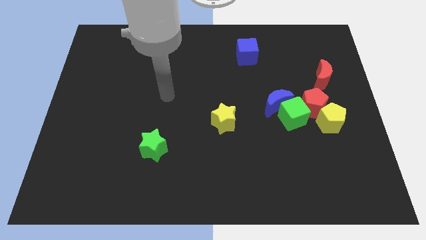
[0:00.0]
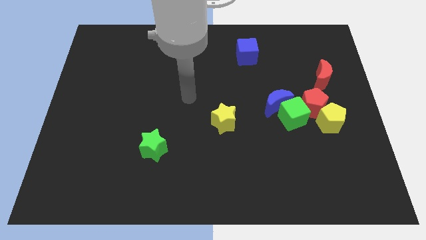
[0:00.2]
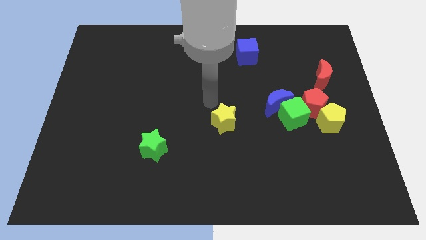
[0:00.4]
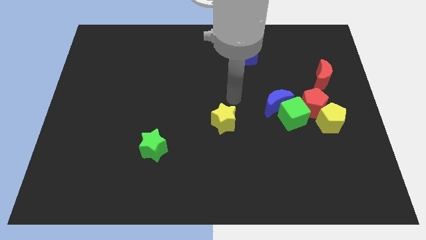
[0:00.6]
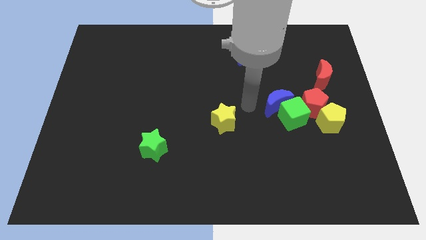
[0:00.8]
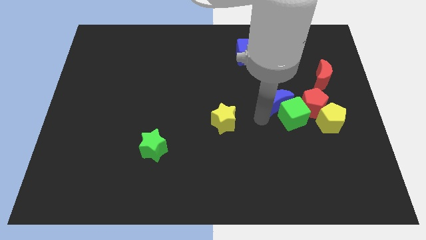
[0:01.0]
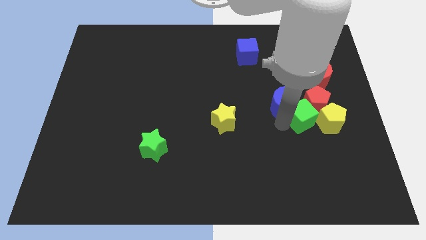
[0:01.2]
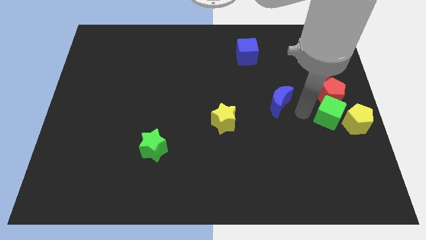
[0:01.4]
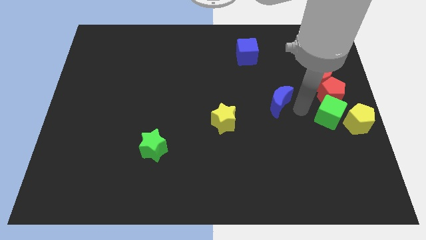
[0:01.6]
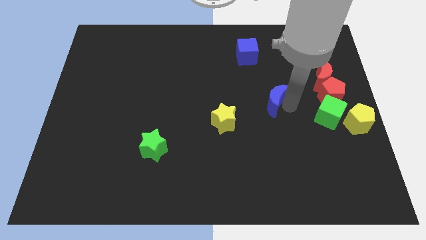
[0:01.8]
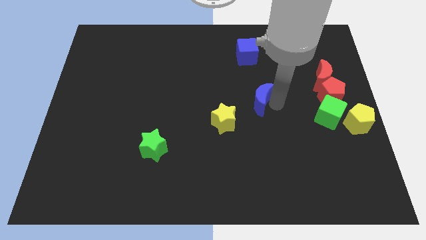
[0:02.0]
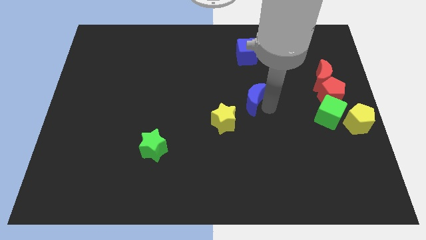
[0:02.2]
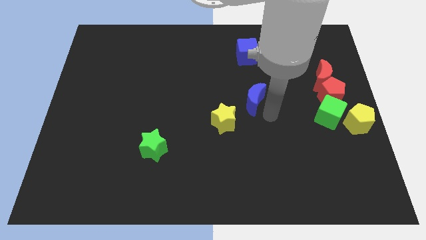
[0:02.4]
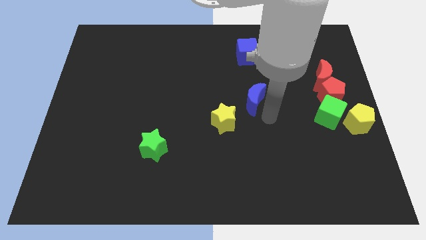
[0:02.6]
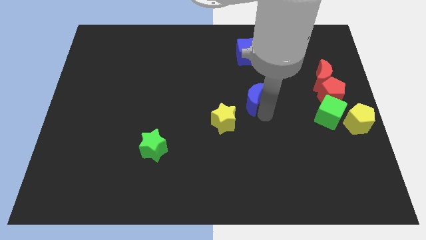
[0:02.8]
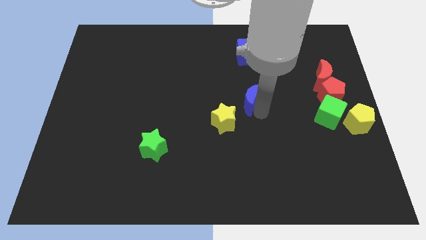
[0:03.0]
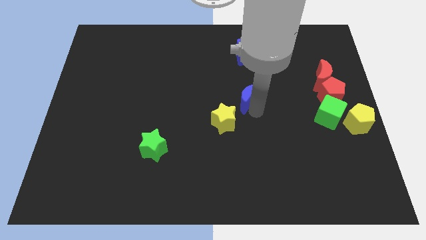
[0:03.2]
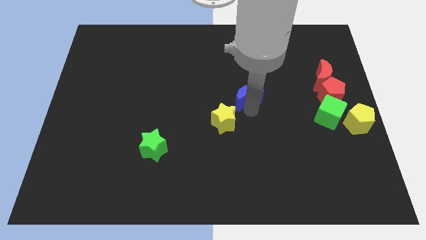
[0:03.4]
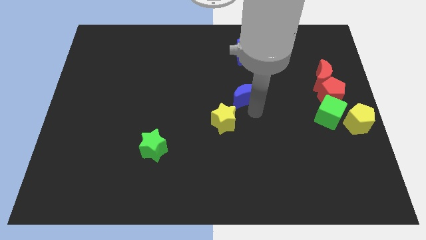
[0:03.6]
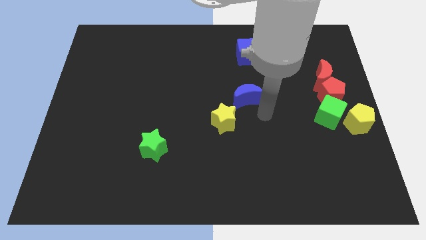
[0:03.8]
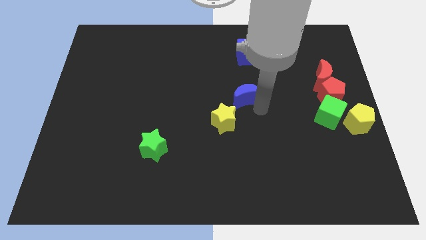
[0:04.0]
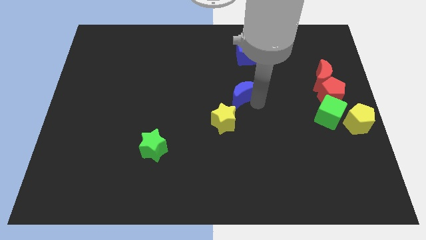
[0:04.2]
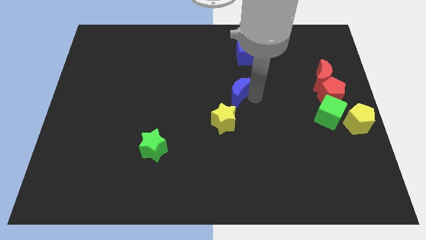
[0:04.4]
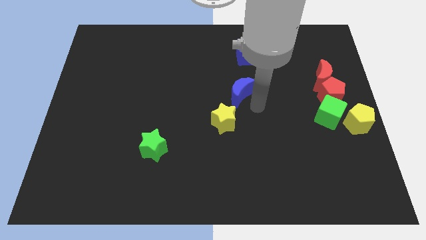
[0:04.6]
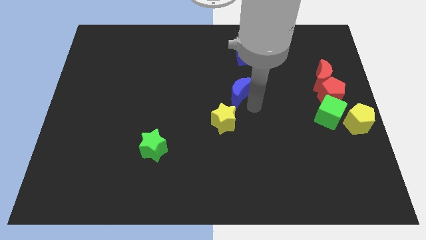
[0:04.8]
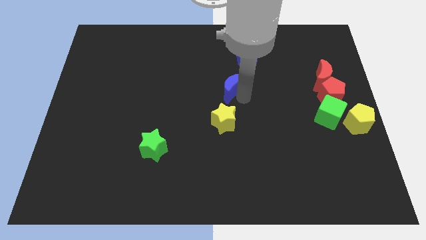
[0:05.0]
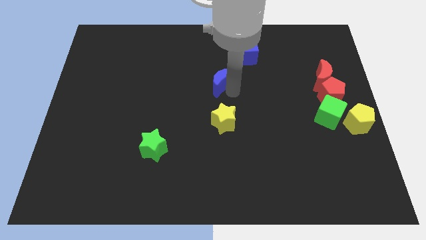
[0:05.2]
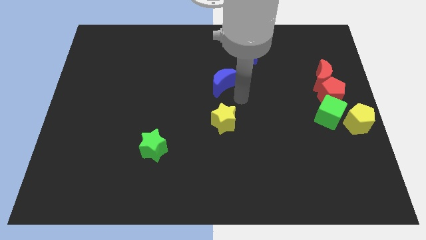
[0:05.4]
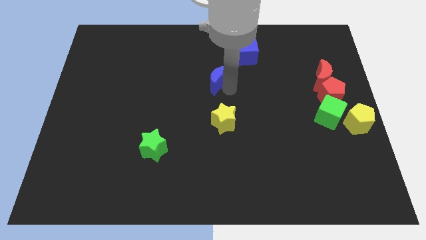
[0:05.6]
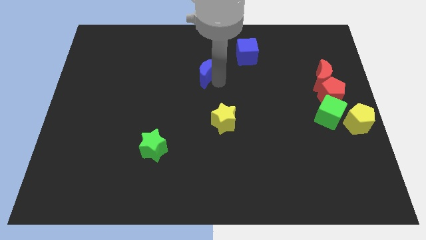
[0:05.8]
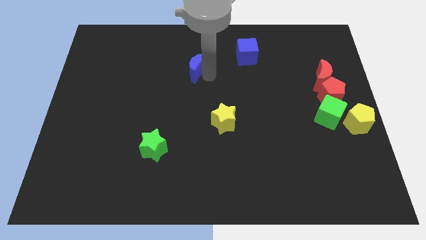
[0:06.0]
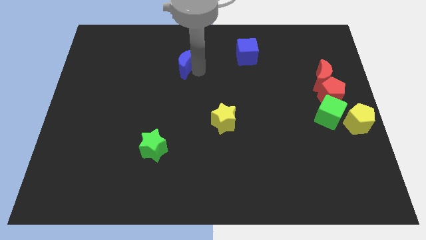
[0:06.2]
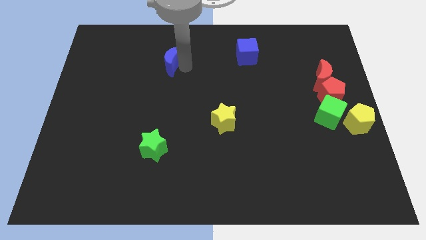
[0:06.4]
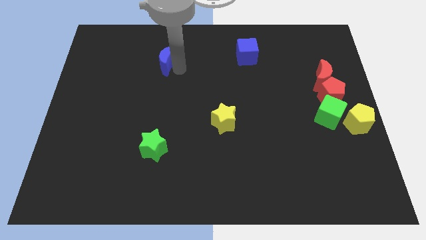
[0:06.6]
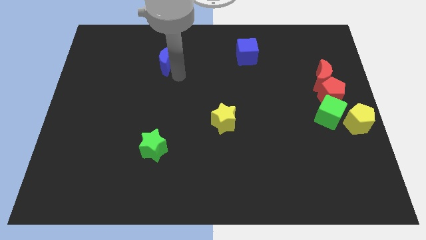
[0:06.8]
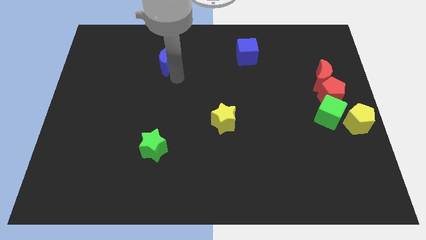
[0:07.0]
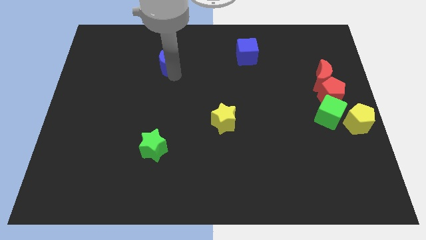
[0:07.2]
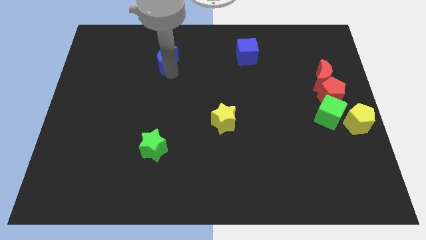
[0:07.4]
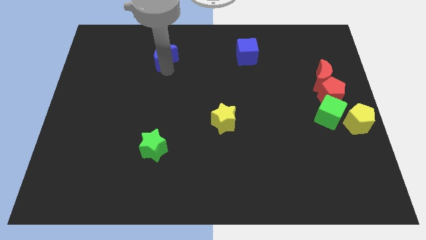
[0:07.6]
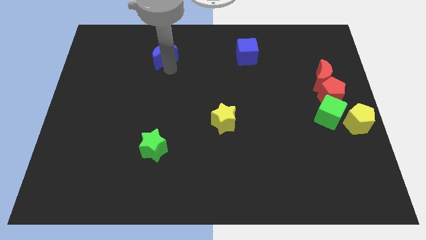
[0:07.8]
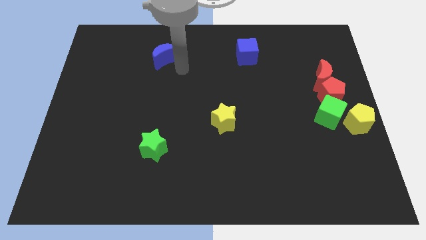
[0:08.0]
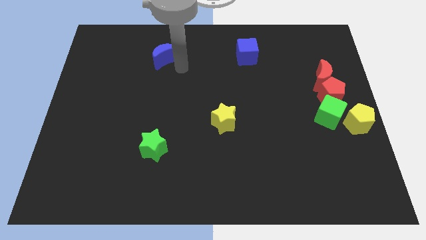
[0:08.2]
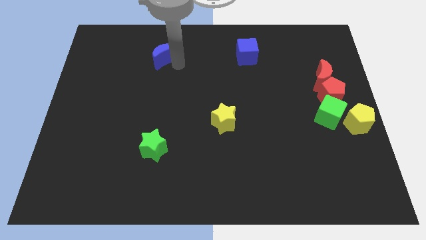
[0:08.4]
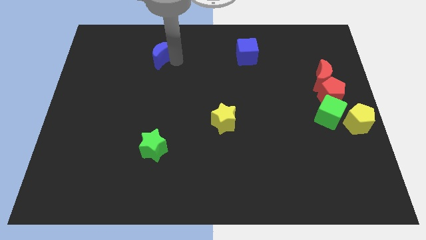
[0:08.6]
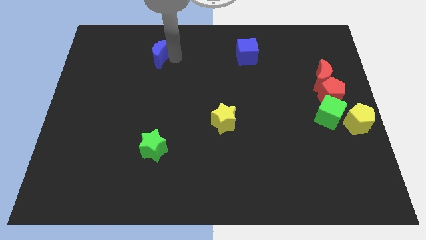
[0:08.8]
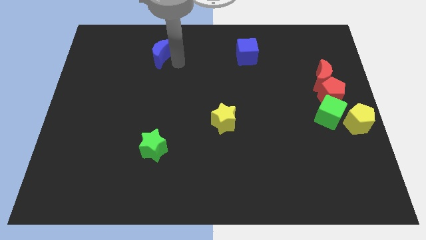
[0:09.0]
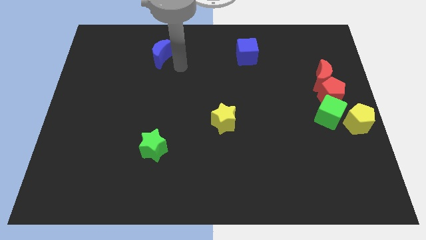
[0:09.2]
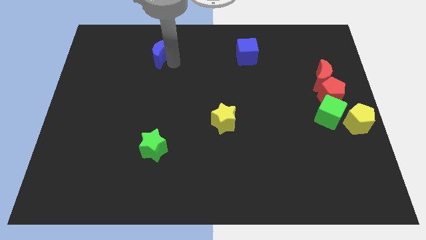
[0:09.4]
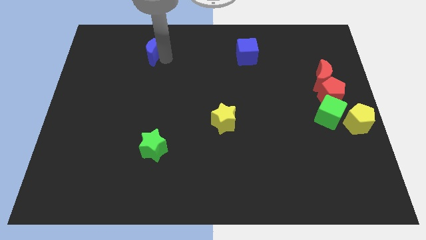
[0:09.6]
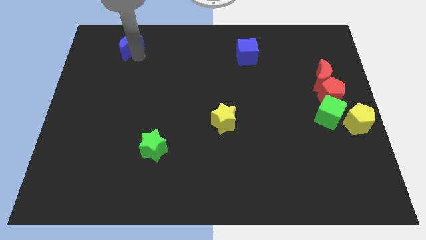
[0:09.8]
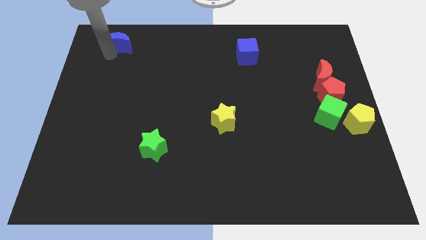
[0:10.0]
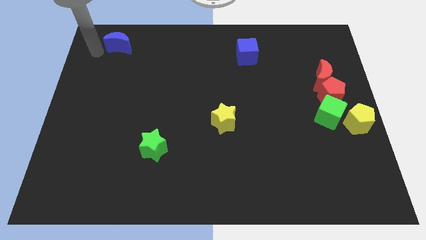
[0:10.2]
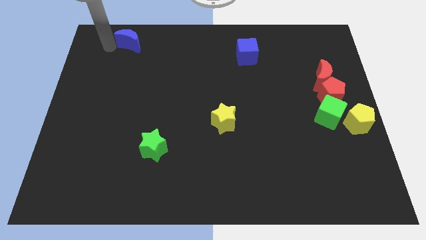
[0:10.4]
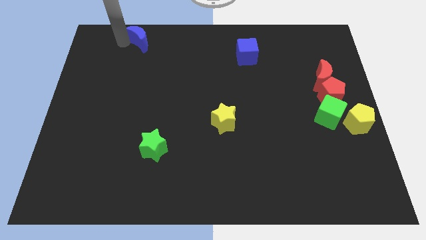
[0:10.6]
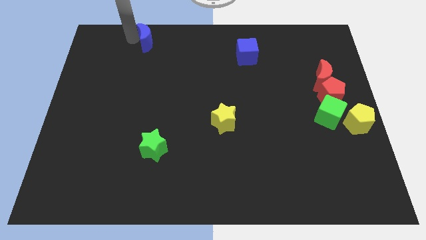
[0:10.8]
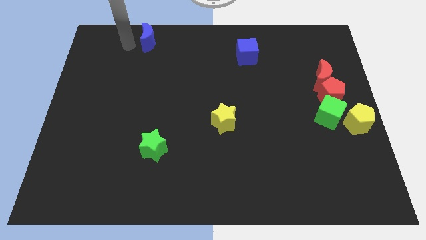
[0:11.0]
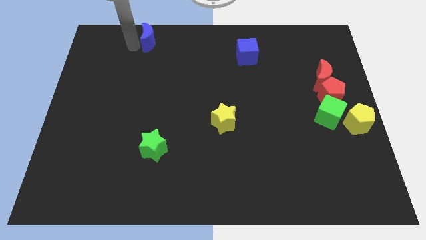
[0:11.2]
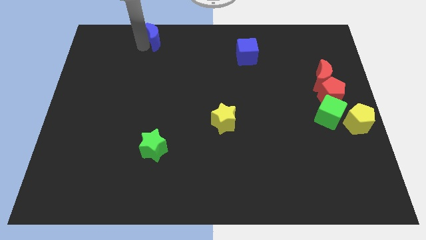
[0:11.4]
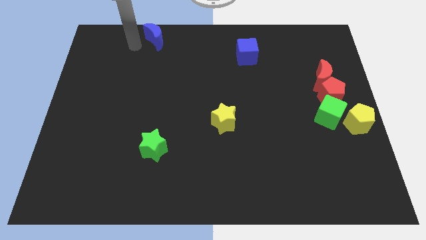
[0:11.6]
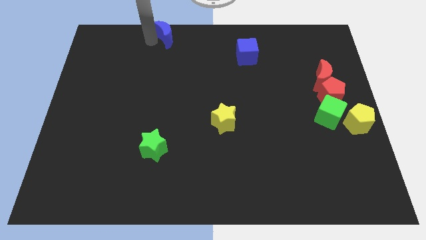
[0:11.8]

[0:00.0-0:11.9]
move the blue moon to the top side
